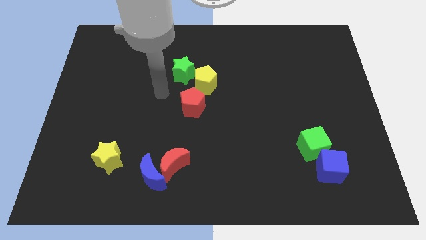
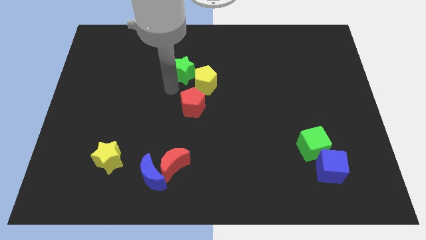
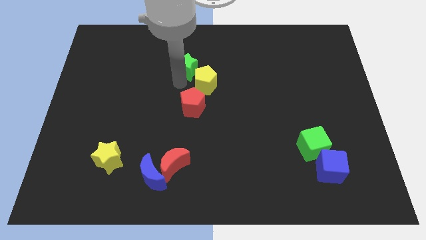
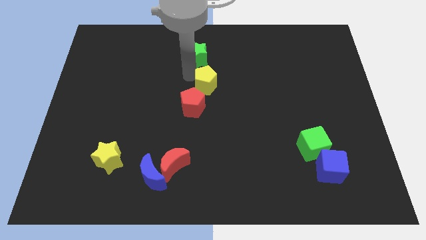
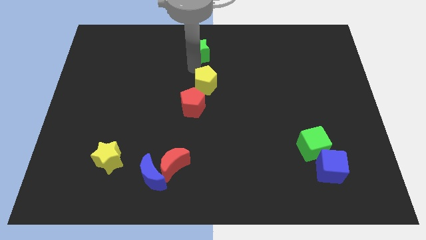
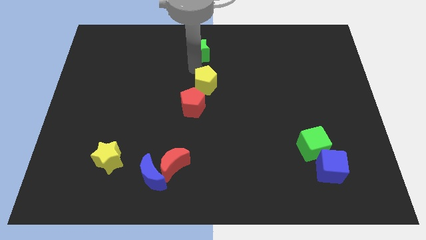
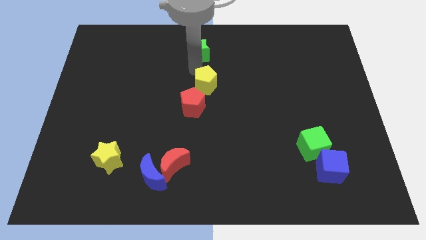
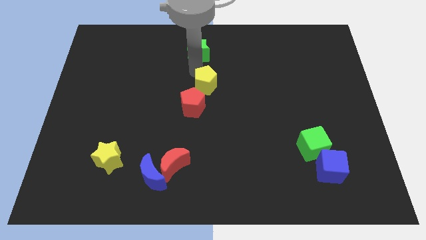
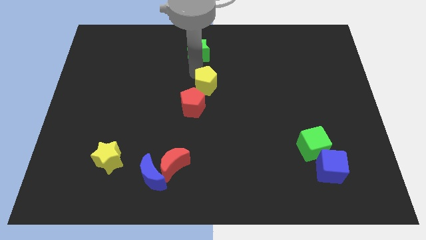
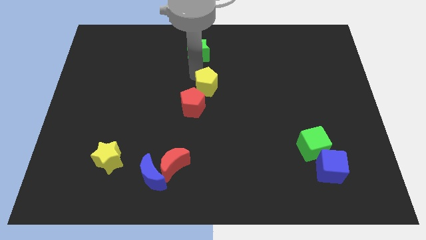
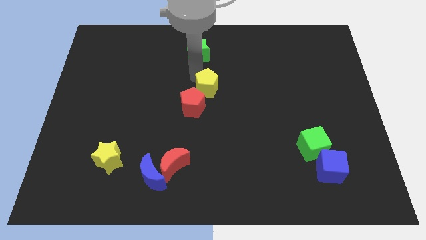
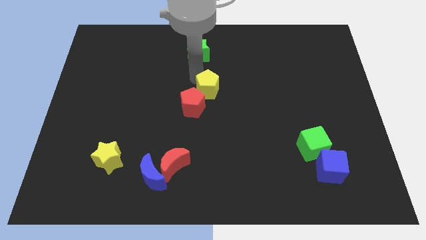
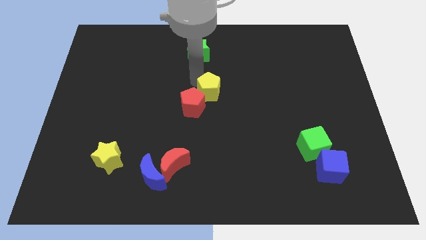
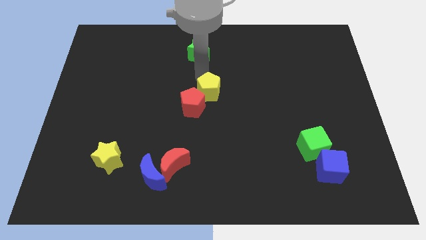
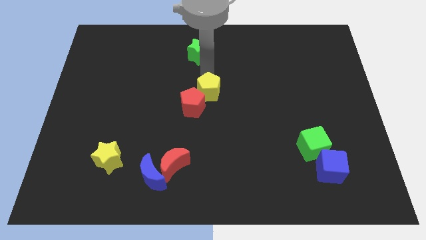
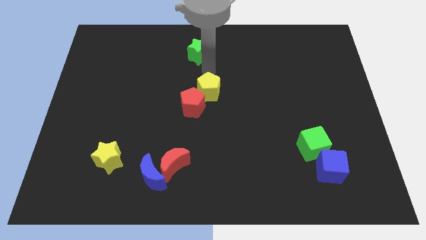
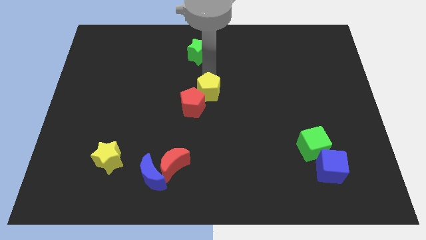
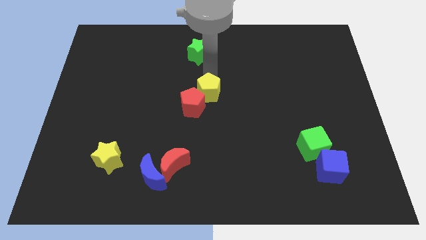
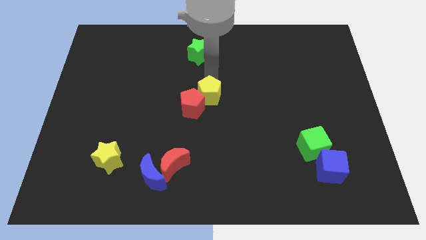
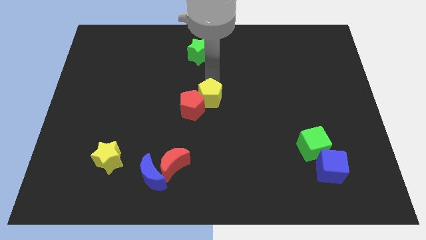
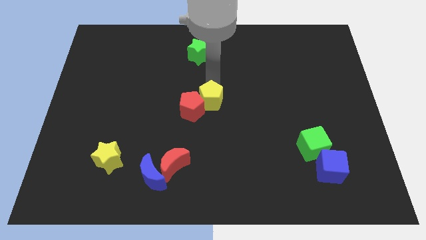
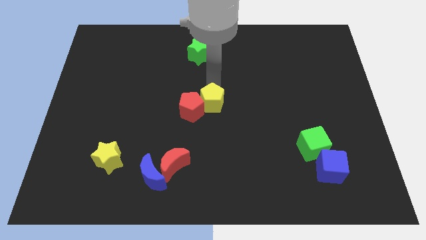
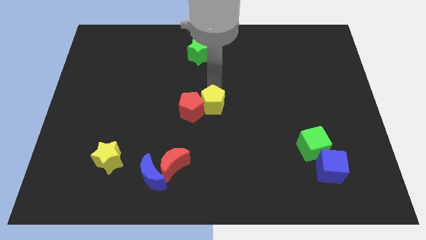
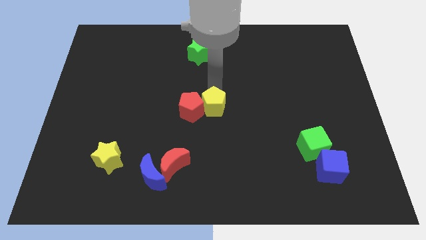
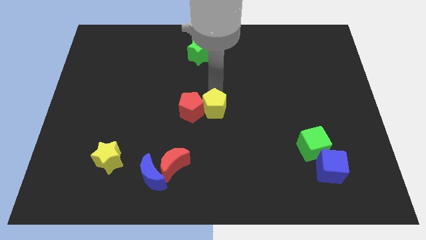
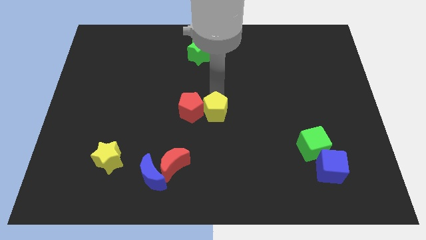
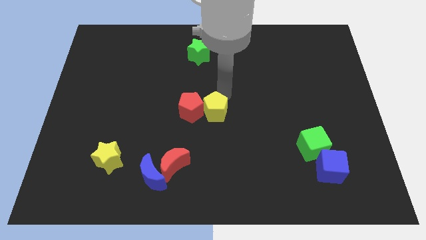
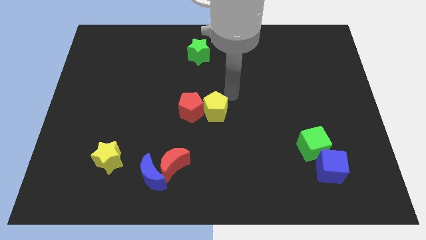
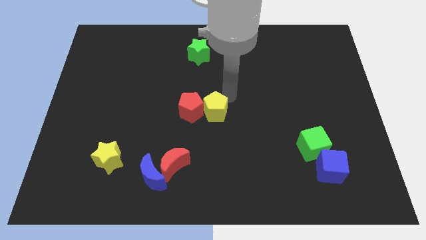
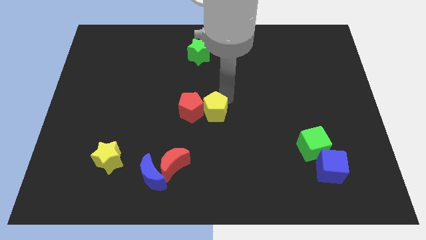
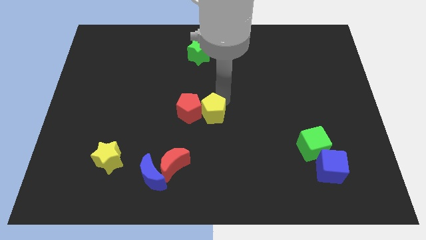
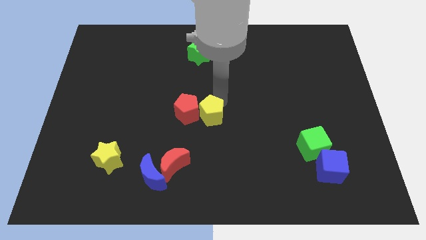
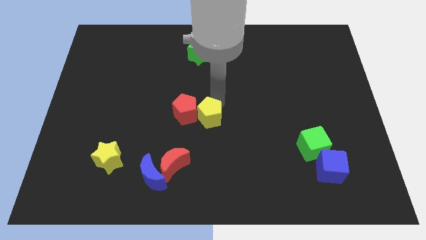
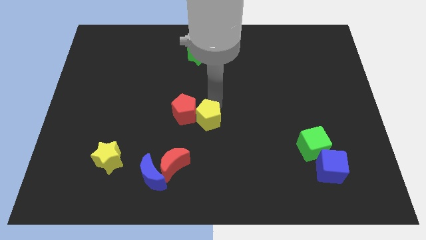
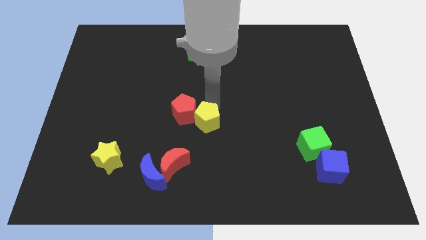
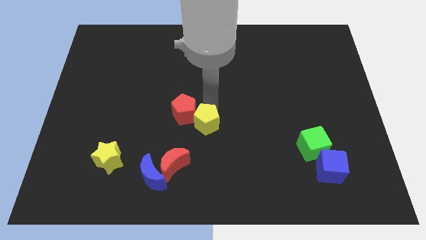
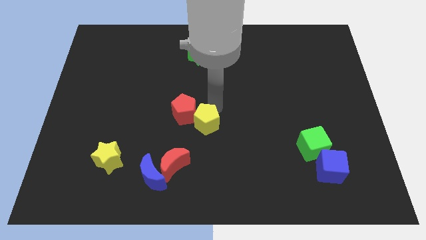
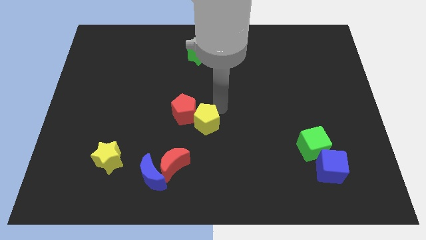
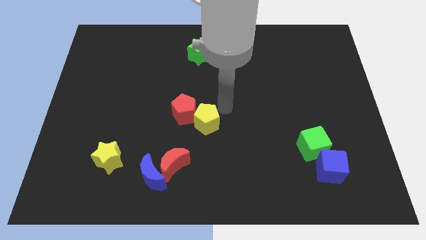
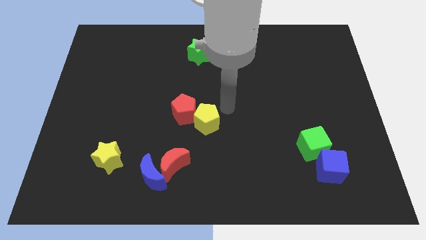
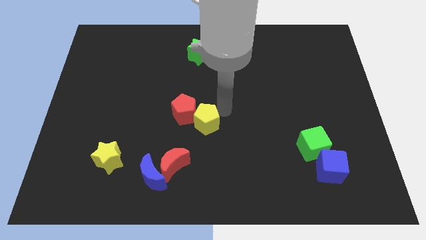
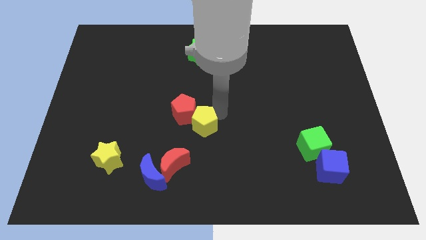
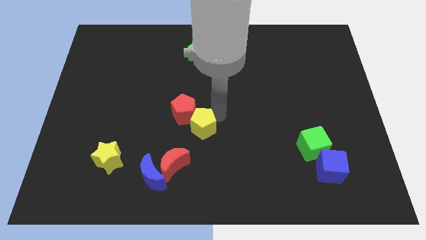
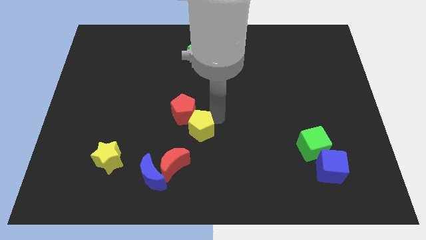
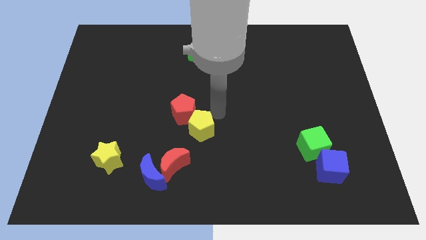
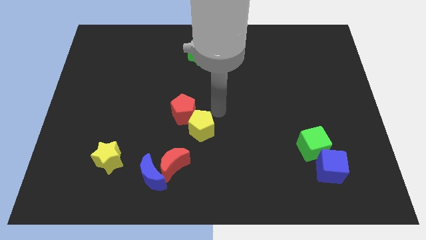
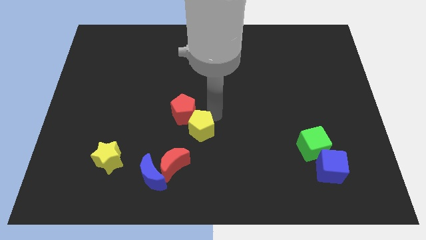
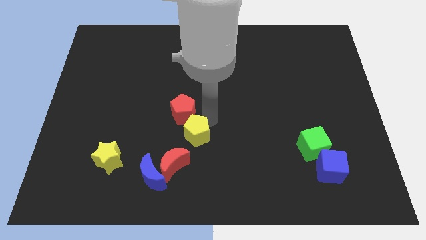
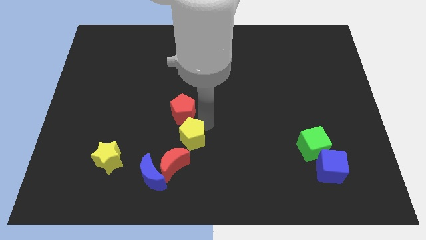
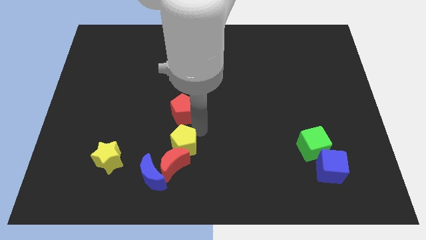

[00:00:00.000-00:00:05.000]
push the yellow pentagon close to the red moon

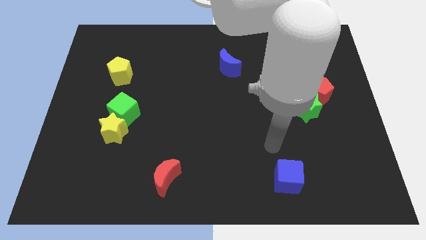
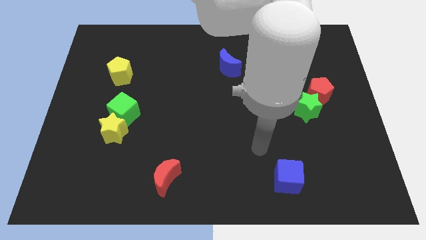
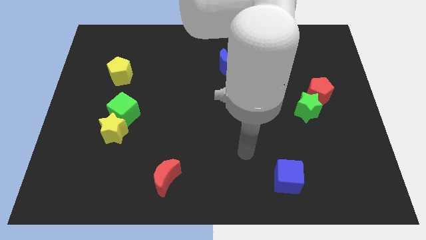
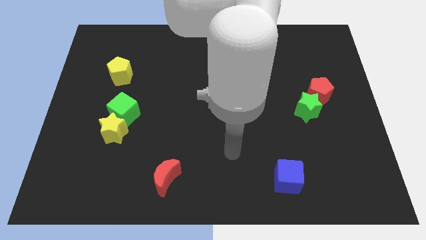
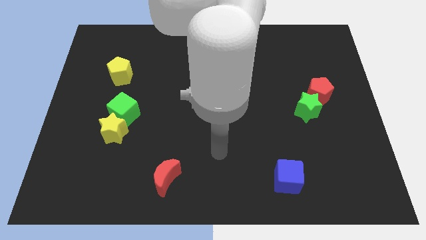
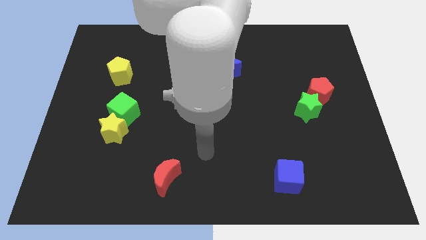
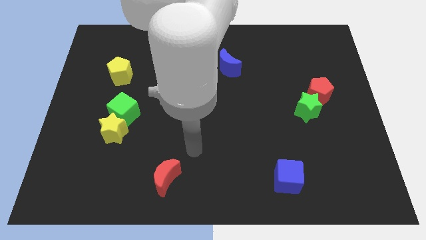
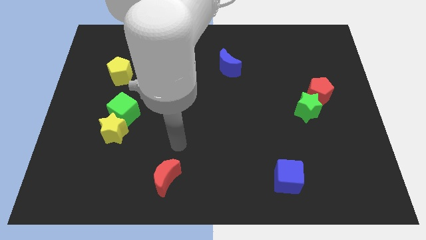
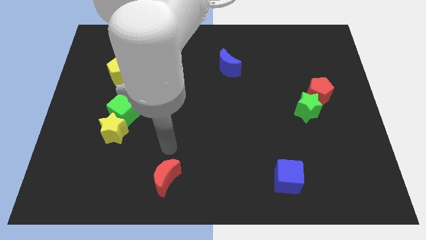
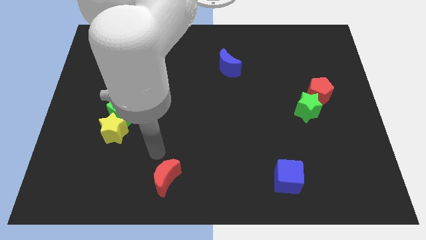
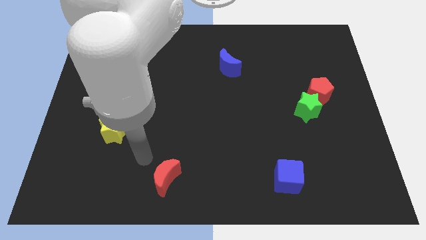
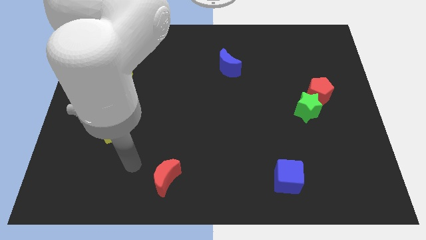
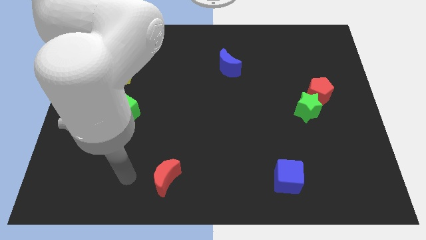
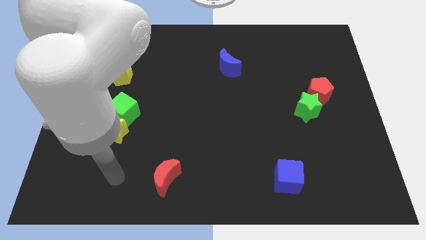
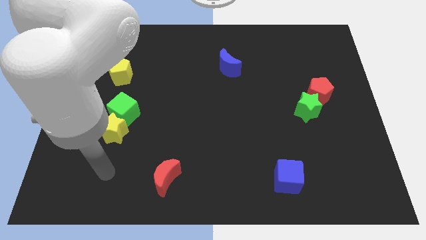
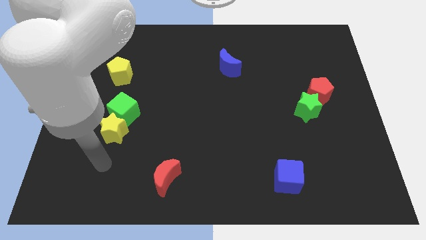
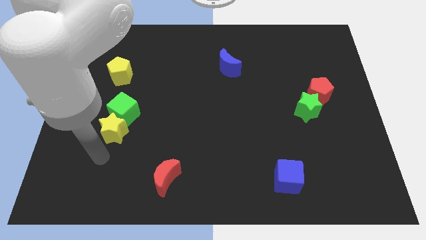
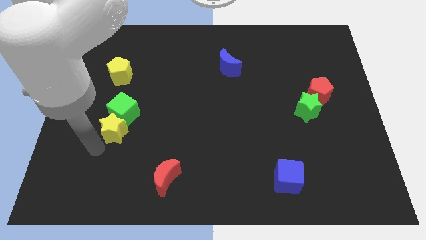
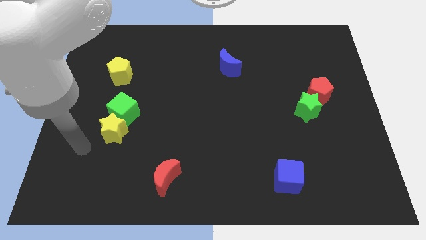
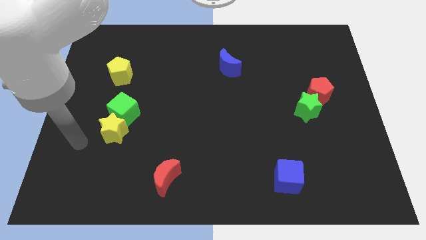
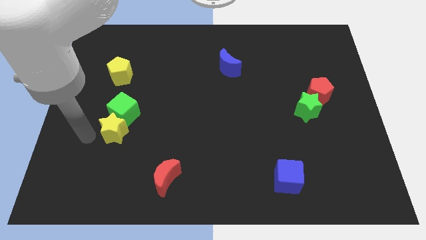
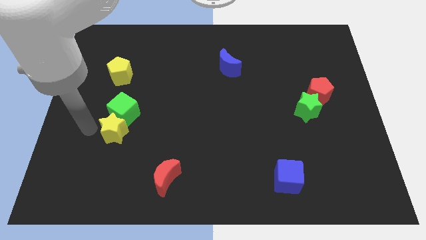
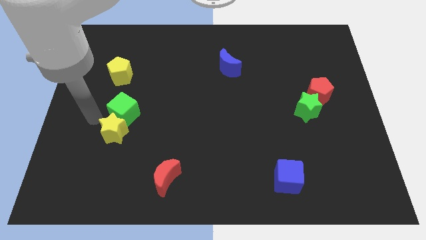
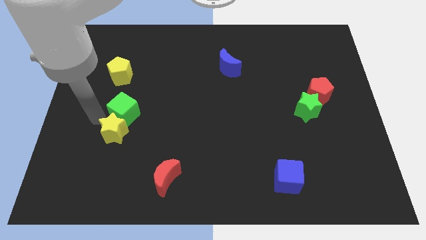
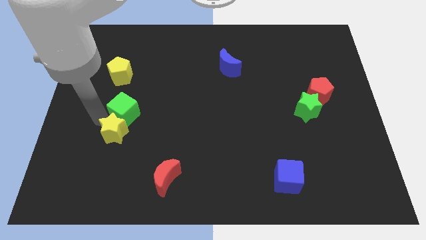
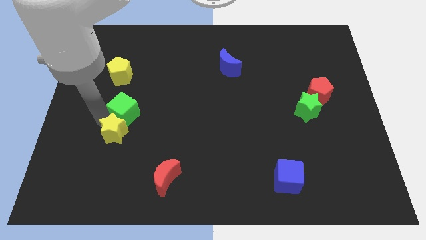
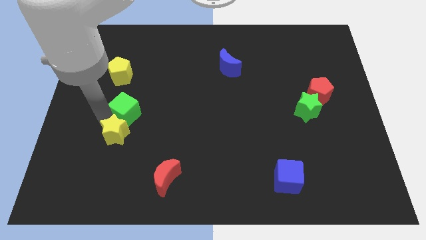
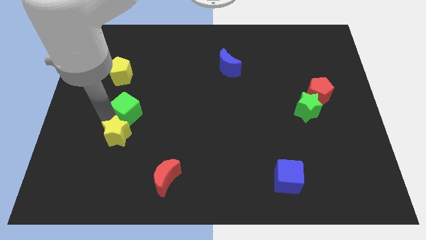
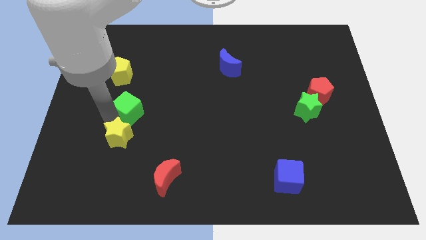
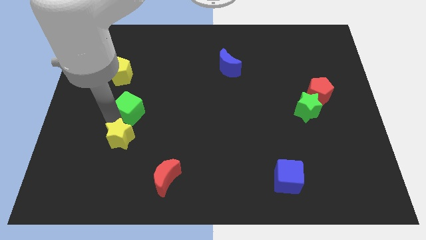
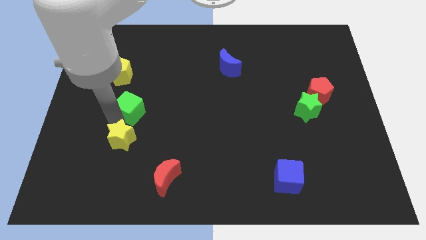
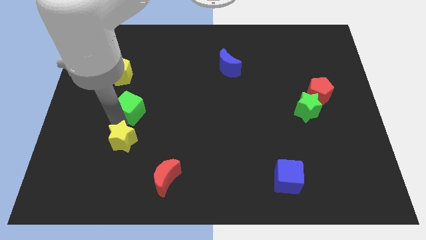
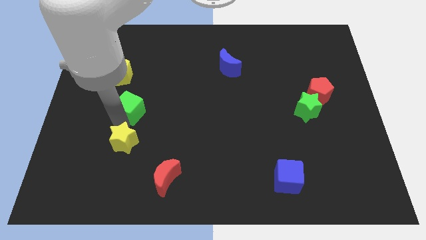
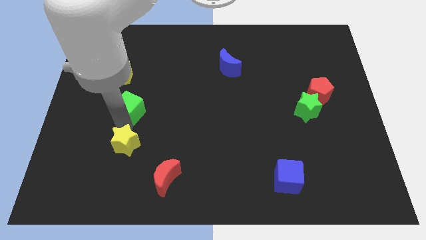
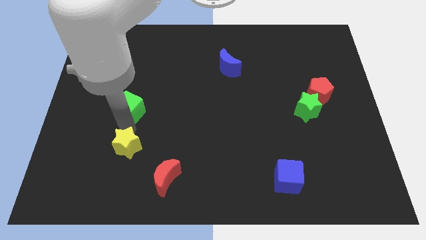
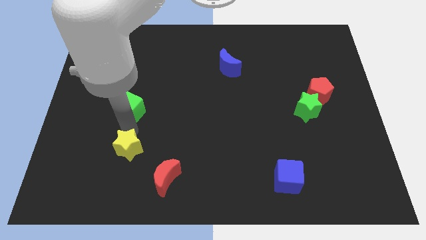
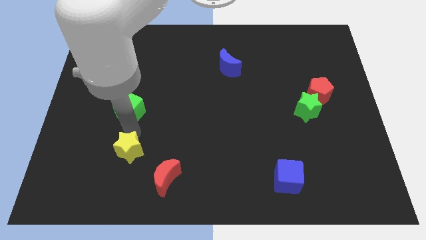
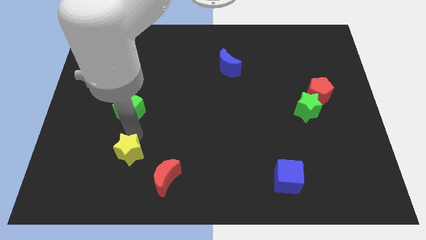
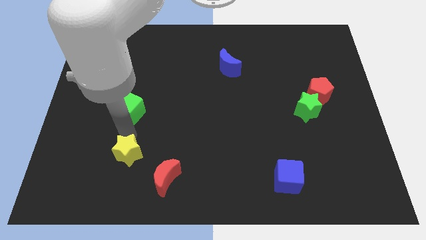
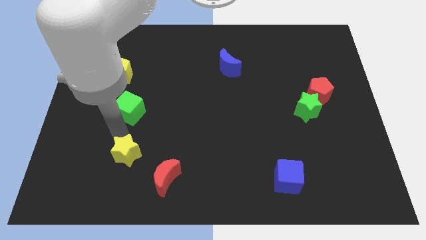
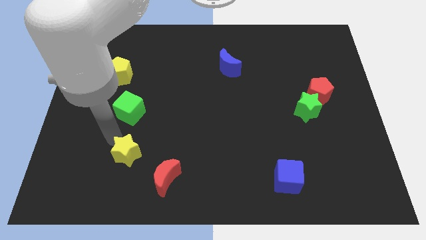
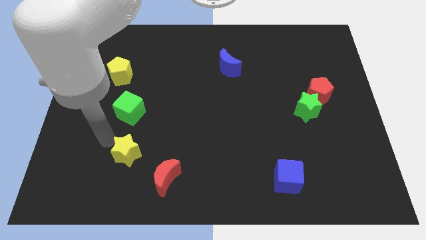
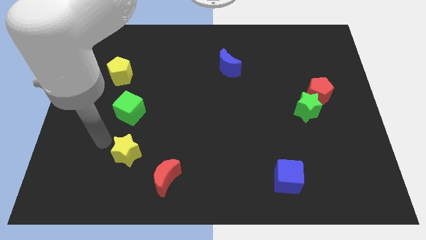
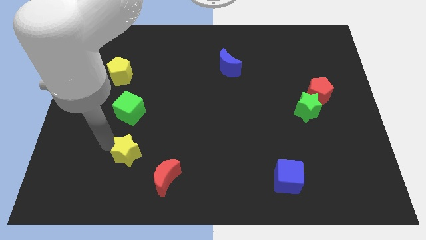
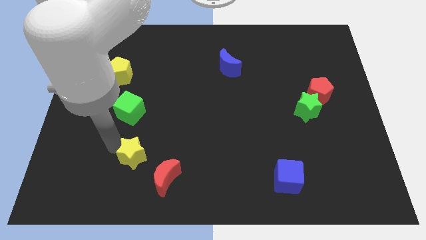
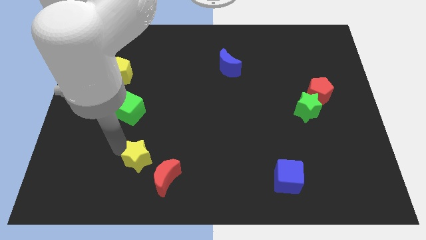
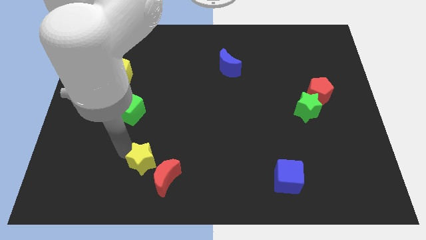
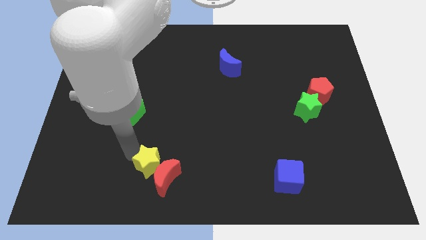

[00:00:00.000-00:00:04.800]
push the yellow star towards the red moon
